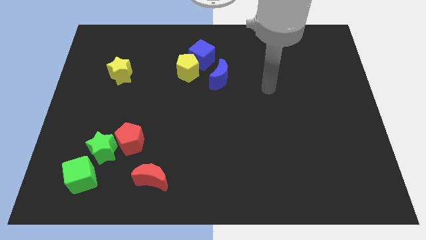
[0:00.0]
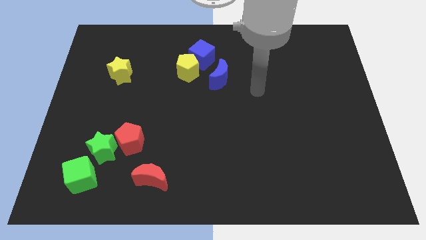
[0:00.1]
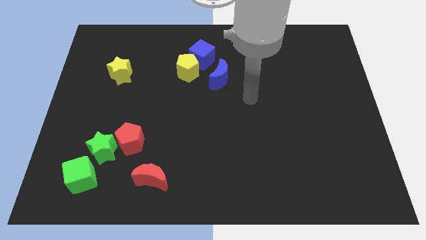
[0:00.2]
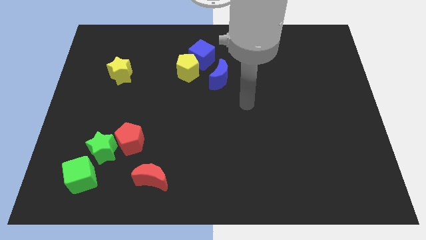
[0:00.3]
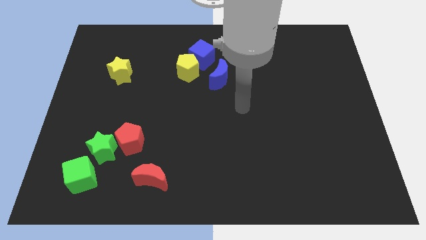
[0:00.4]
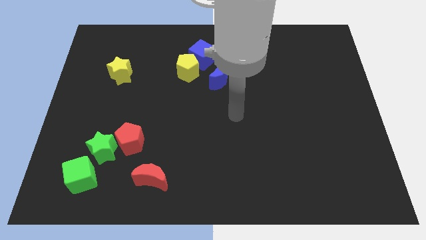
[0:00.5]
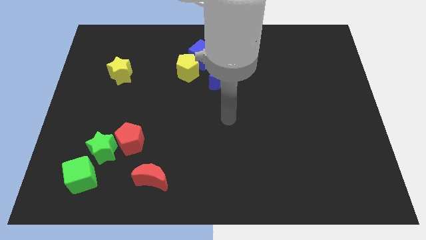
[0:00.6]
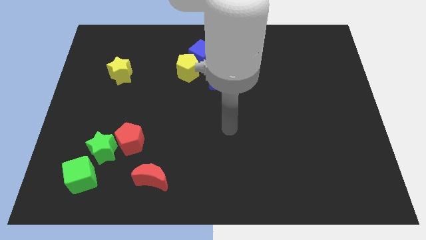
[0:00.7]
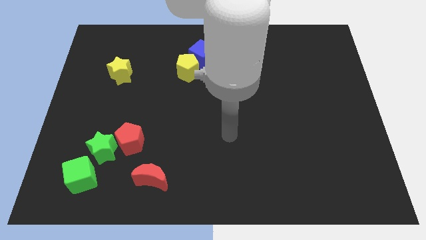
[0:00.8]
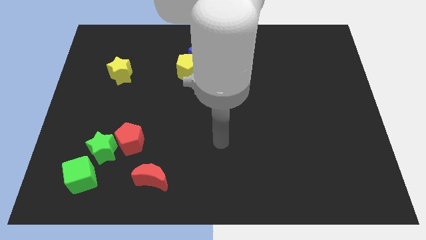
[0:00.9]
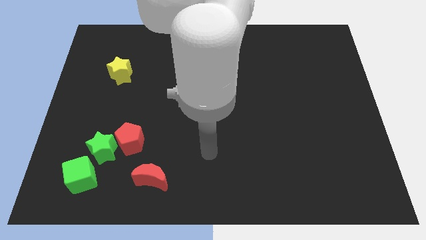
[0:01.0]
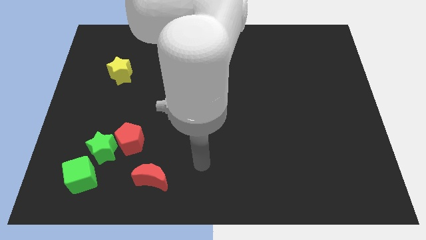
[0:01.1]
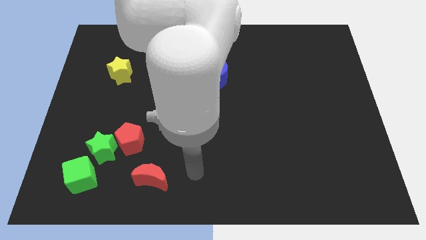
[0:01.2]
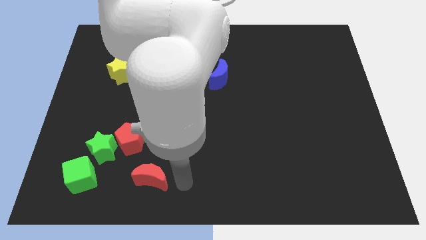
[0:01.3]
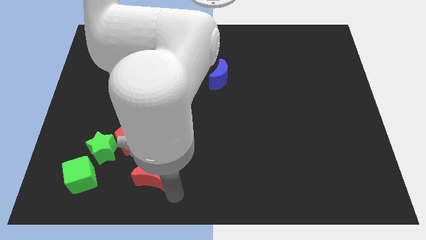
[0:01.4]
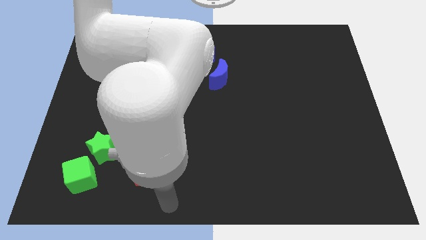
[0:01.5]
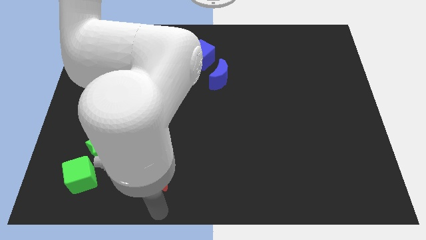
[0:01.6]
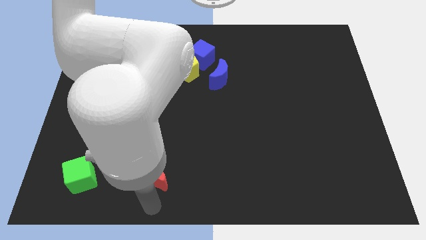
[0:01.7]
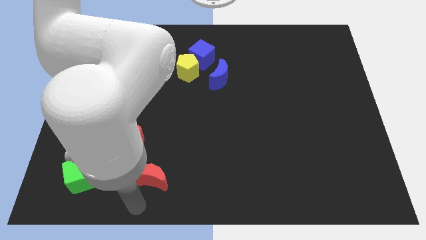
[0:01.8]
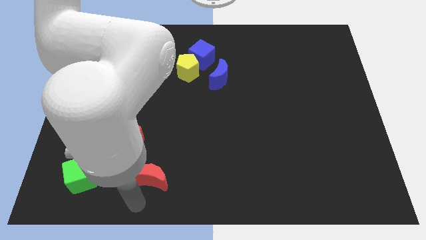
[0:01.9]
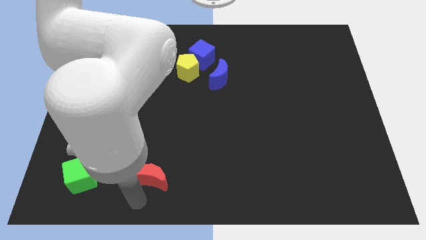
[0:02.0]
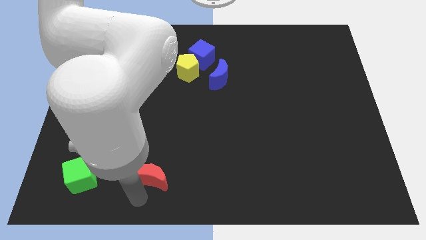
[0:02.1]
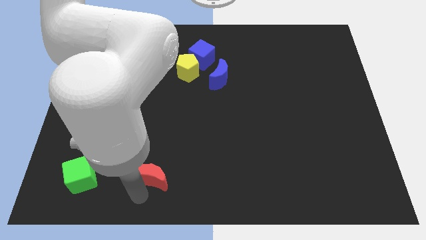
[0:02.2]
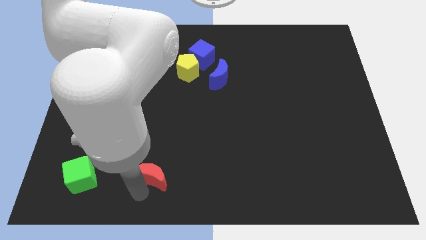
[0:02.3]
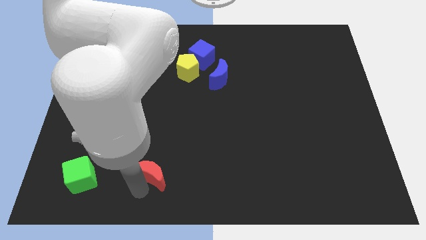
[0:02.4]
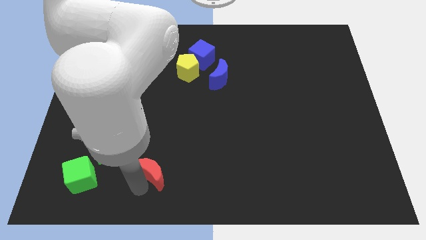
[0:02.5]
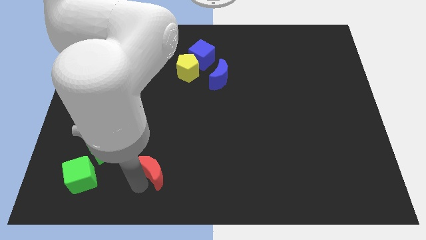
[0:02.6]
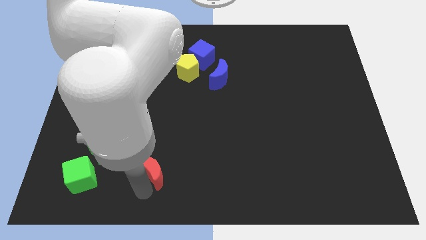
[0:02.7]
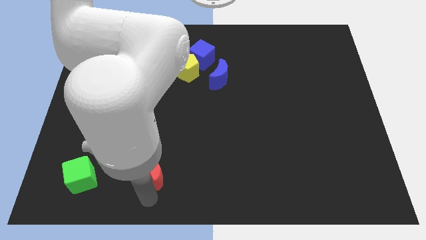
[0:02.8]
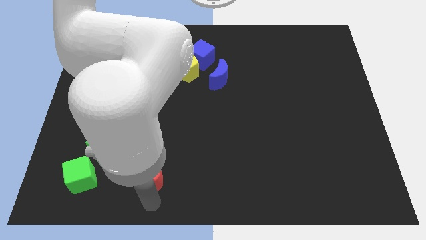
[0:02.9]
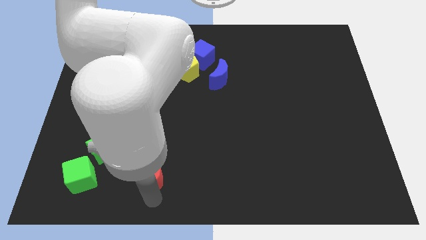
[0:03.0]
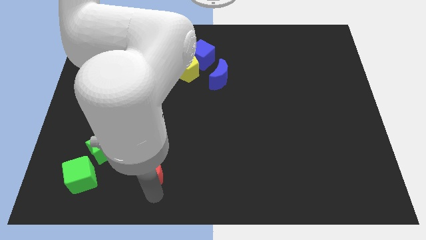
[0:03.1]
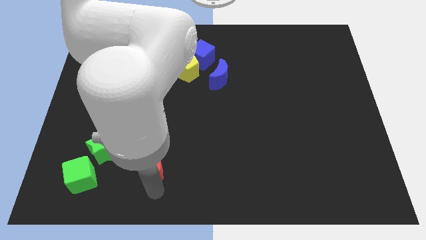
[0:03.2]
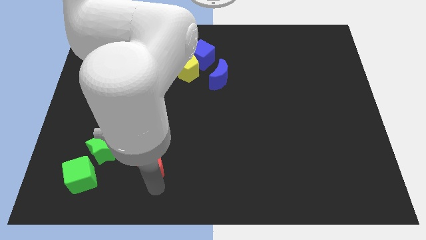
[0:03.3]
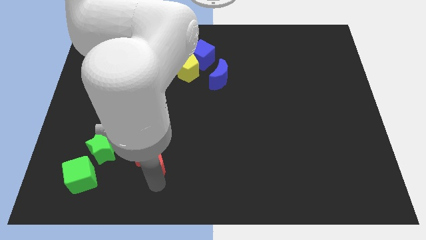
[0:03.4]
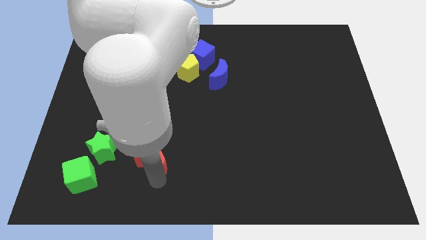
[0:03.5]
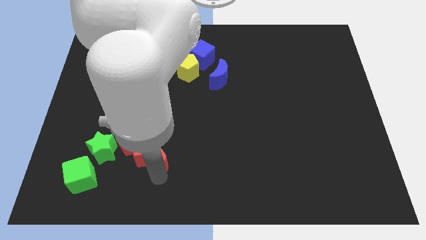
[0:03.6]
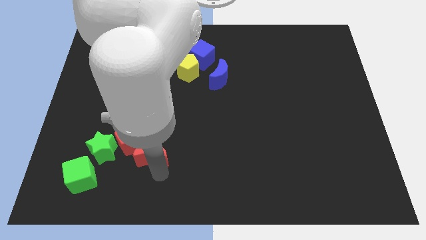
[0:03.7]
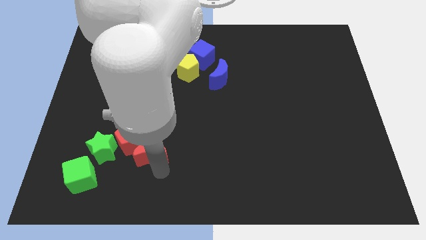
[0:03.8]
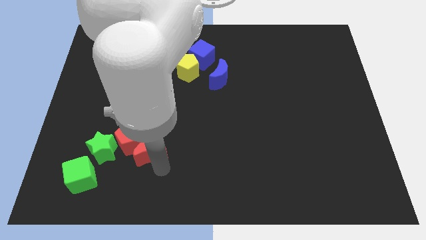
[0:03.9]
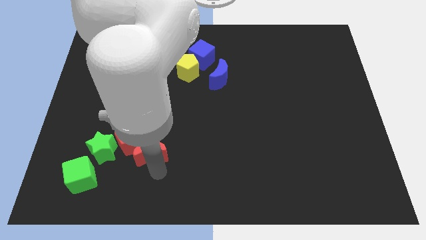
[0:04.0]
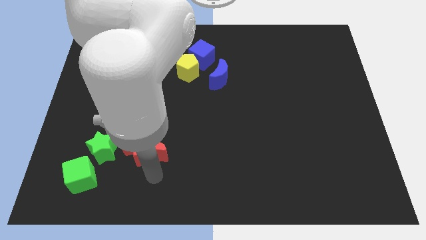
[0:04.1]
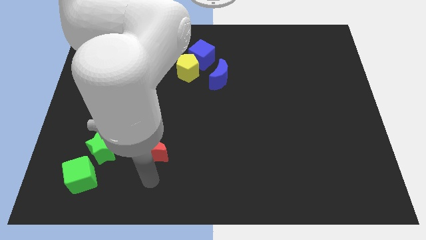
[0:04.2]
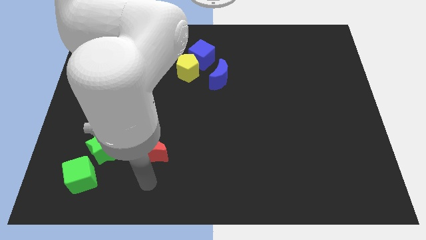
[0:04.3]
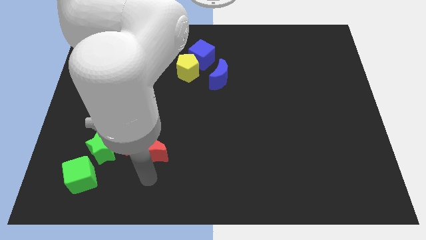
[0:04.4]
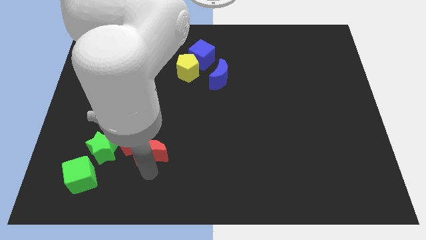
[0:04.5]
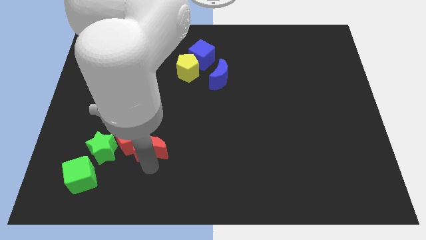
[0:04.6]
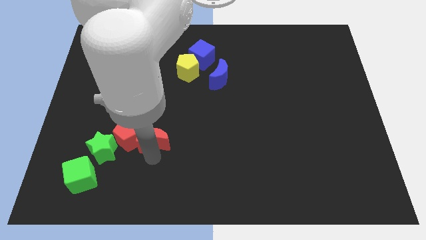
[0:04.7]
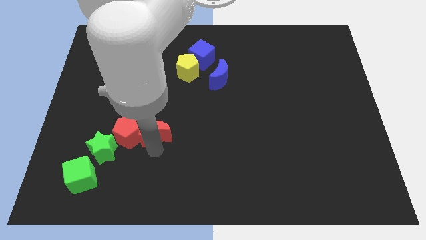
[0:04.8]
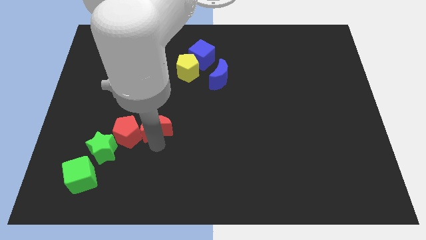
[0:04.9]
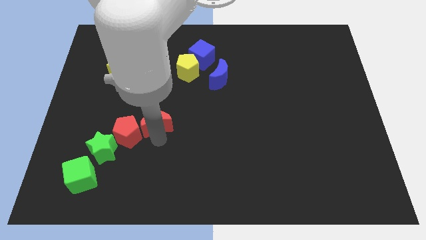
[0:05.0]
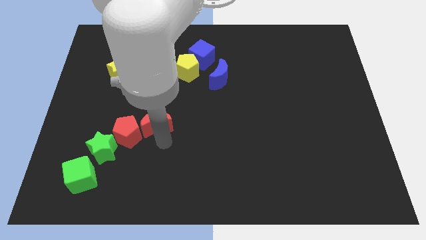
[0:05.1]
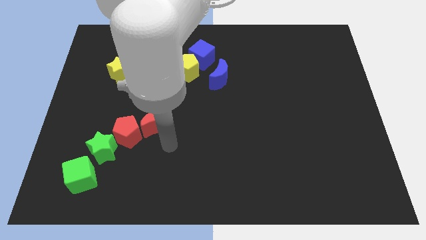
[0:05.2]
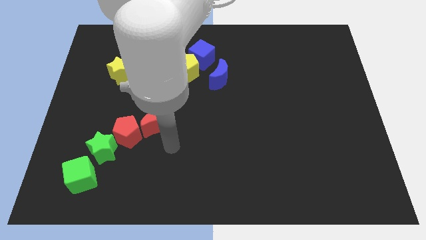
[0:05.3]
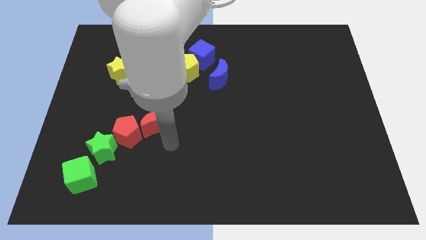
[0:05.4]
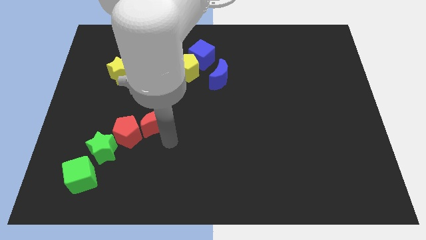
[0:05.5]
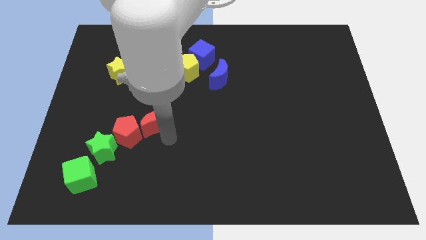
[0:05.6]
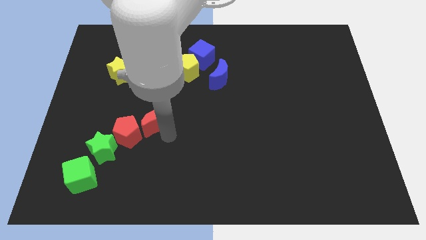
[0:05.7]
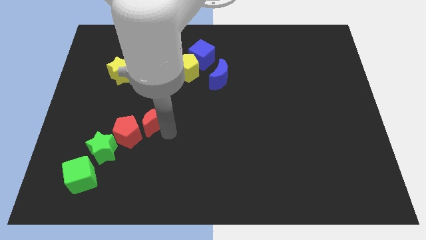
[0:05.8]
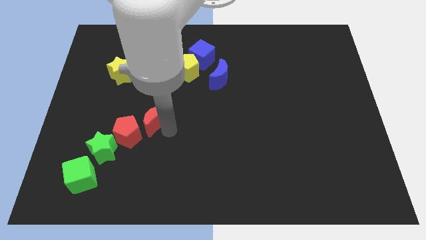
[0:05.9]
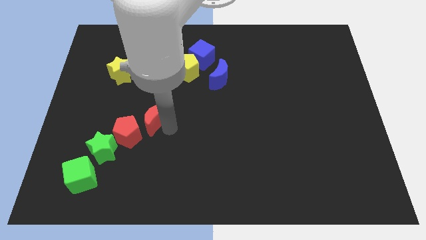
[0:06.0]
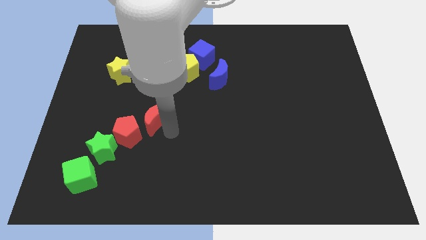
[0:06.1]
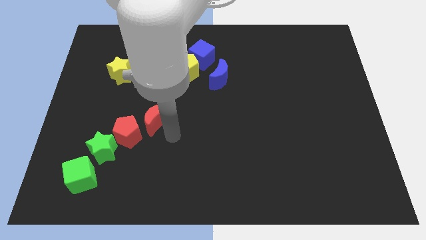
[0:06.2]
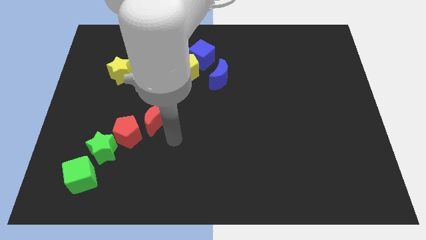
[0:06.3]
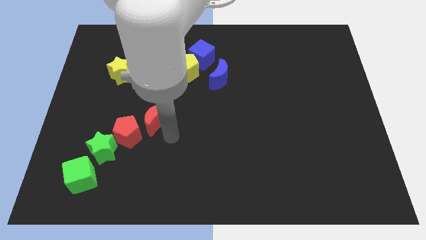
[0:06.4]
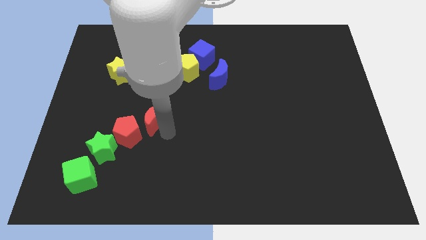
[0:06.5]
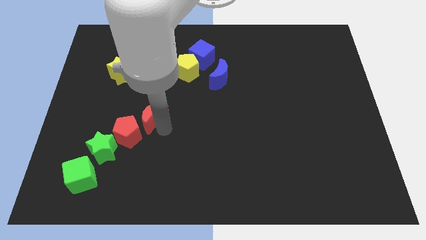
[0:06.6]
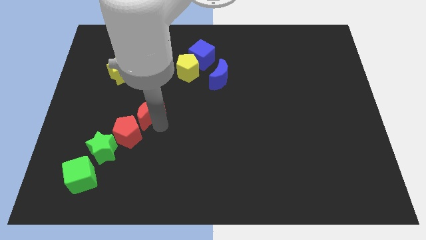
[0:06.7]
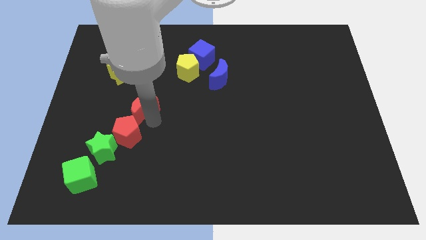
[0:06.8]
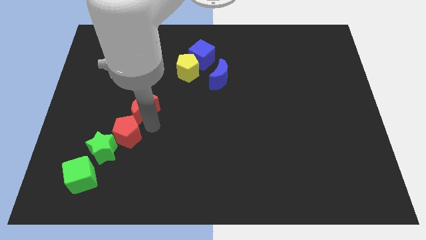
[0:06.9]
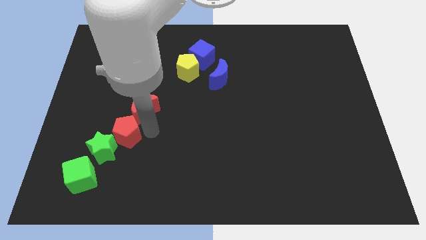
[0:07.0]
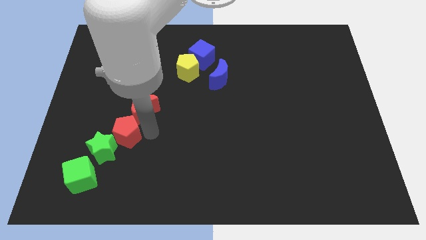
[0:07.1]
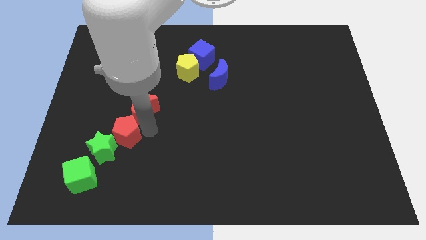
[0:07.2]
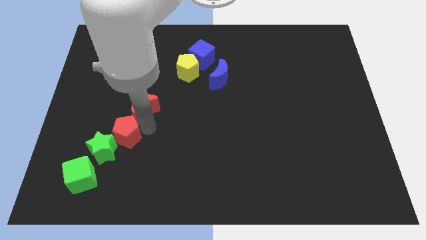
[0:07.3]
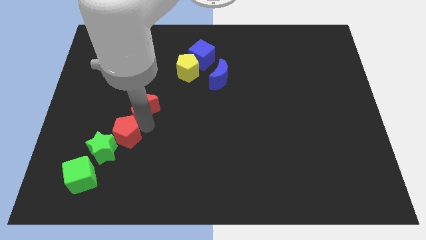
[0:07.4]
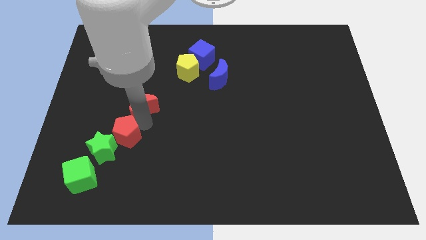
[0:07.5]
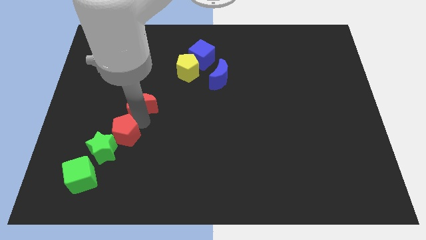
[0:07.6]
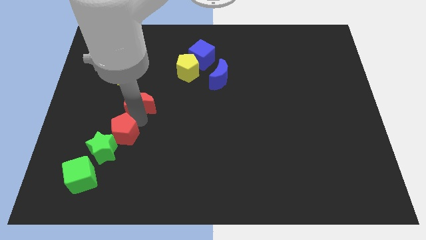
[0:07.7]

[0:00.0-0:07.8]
move the red moon diagonally down and to the right of the yellow star
